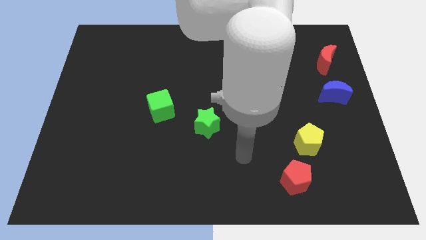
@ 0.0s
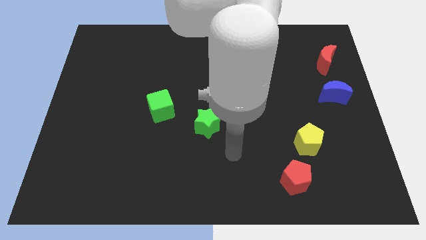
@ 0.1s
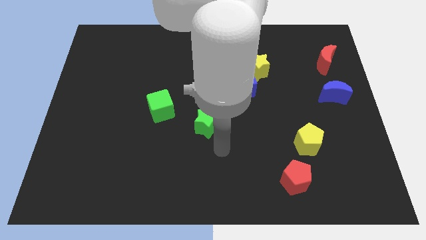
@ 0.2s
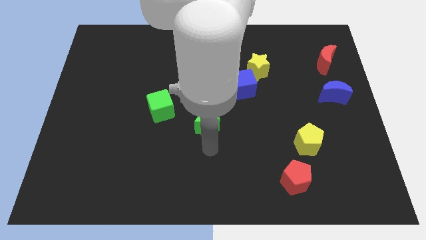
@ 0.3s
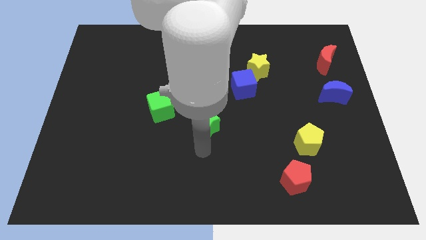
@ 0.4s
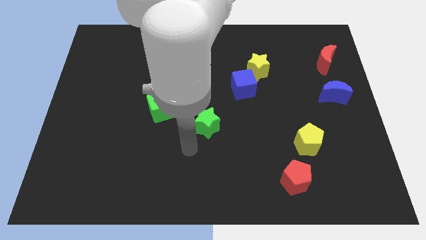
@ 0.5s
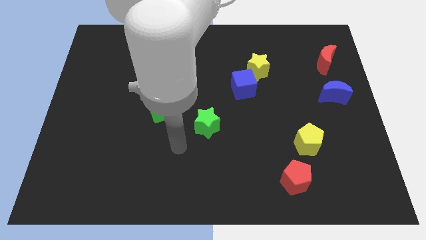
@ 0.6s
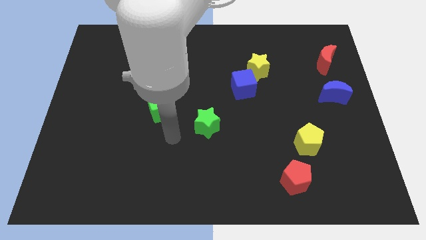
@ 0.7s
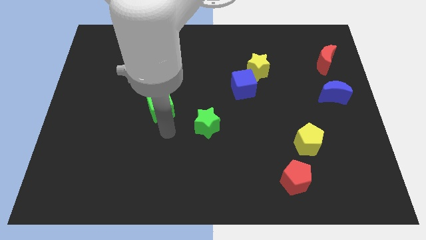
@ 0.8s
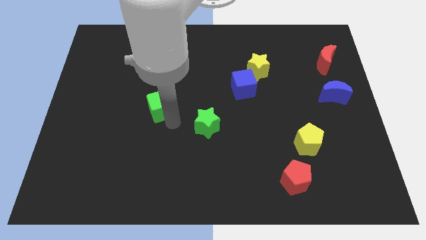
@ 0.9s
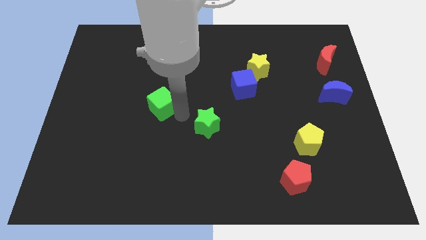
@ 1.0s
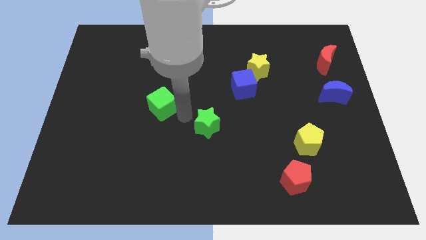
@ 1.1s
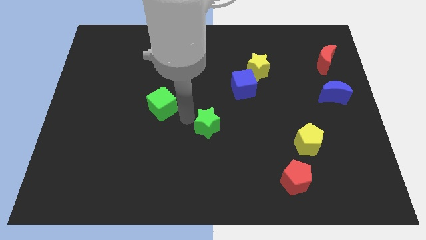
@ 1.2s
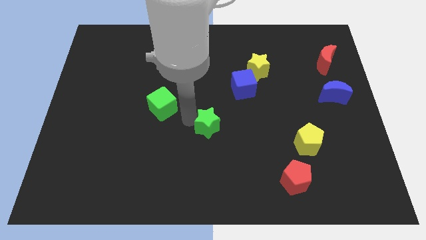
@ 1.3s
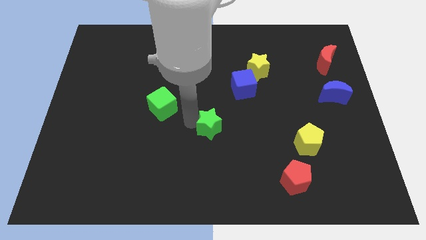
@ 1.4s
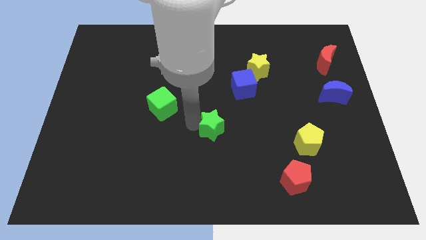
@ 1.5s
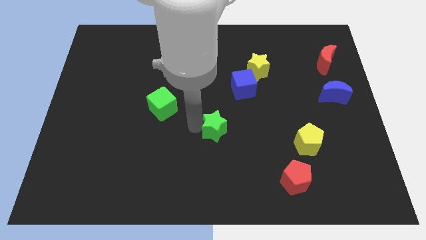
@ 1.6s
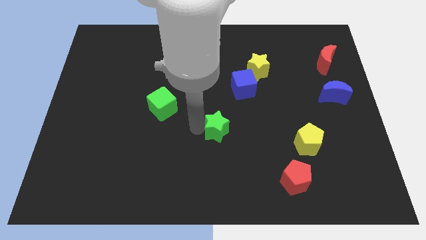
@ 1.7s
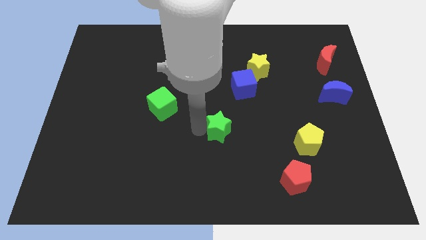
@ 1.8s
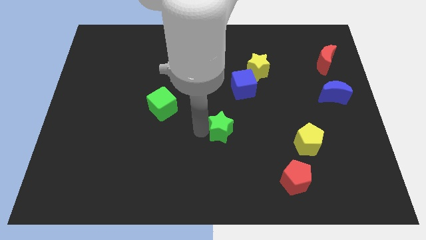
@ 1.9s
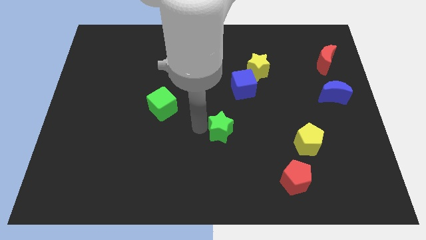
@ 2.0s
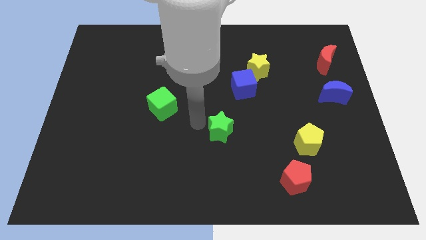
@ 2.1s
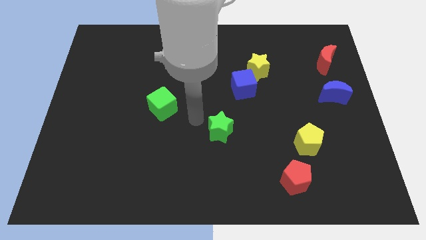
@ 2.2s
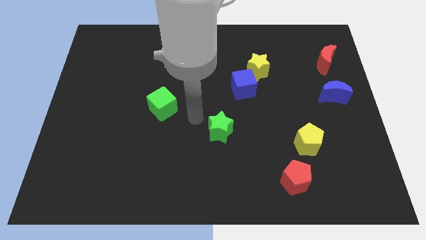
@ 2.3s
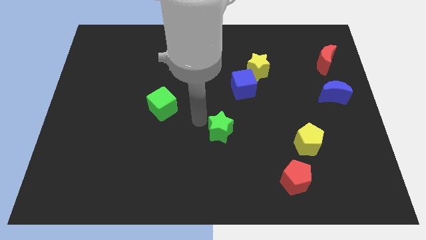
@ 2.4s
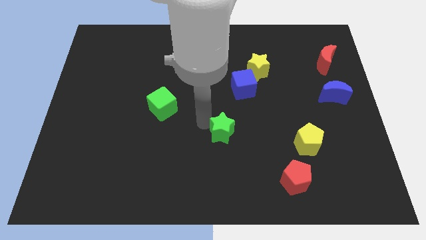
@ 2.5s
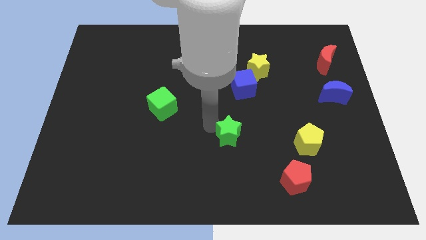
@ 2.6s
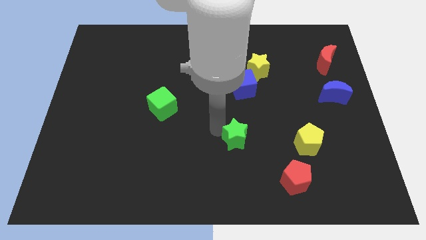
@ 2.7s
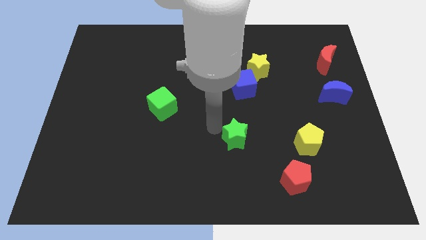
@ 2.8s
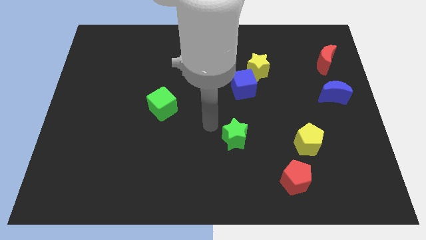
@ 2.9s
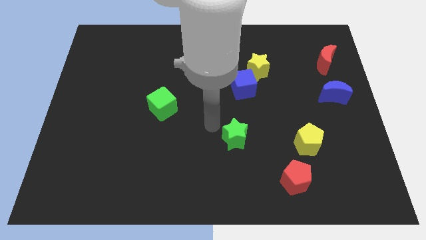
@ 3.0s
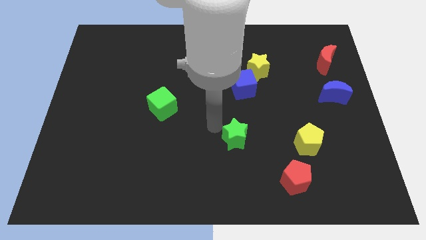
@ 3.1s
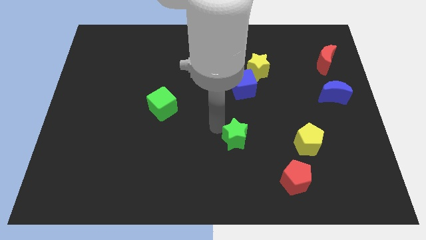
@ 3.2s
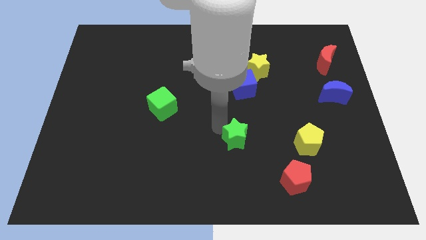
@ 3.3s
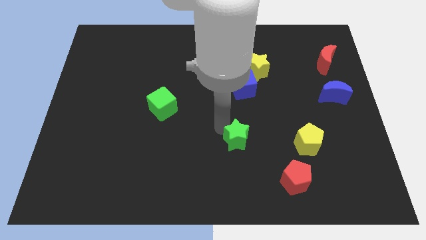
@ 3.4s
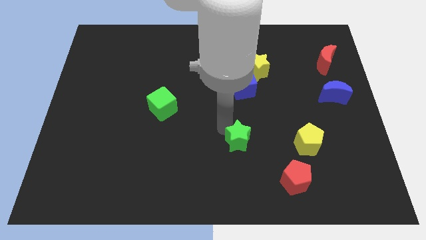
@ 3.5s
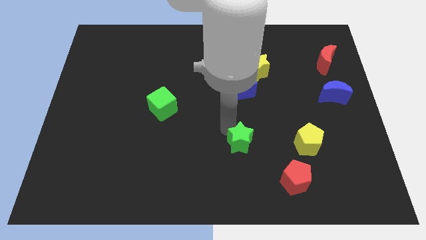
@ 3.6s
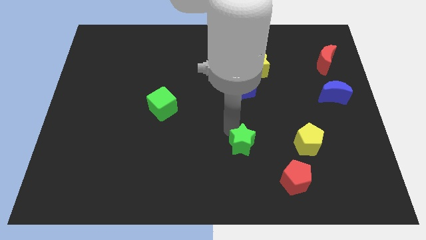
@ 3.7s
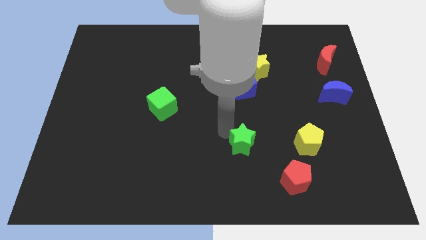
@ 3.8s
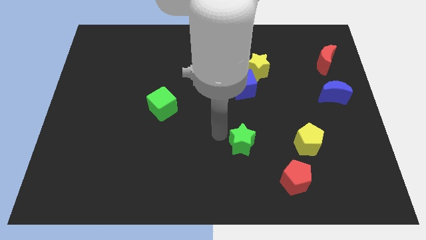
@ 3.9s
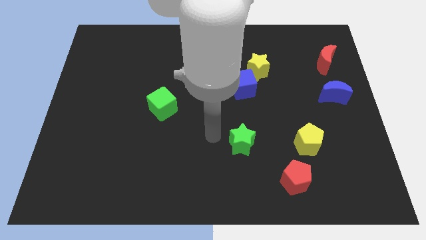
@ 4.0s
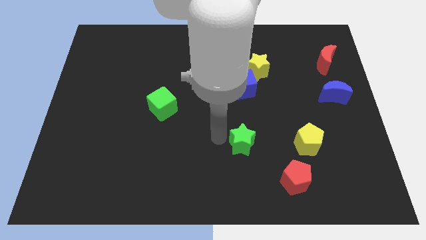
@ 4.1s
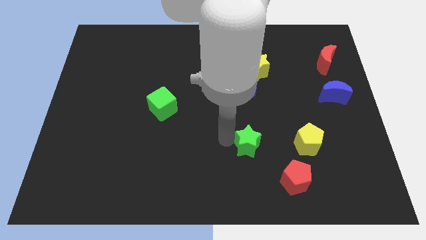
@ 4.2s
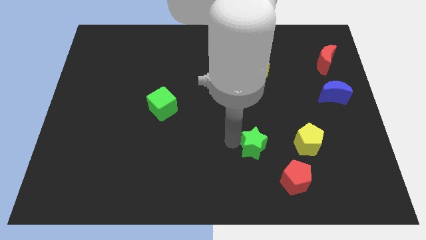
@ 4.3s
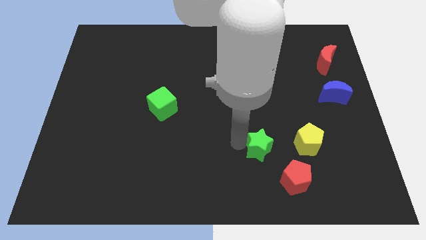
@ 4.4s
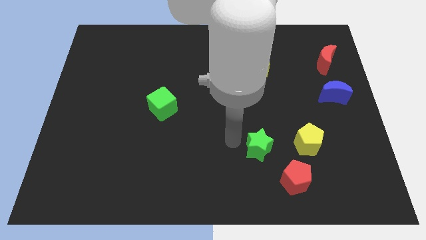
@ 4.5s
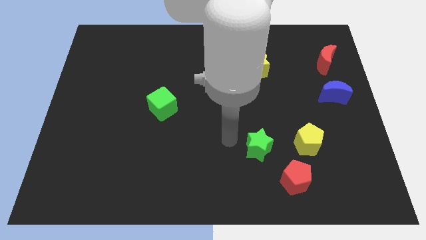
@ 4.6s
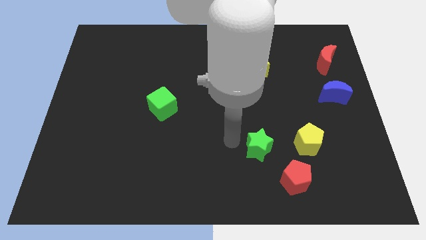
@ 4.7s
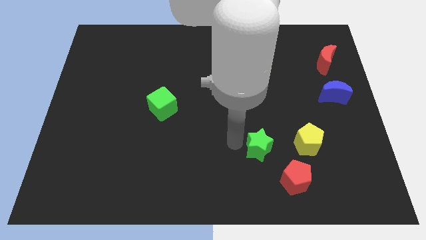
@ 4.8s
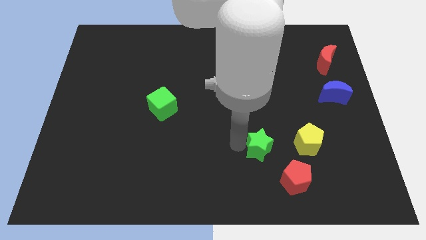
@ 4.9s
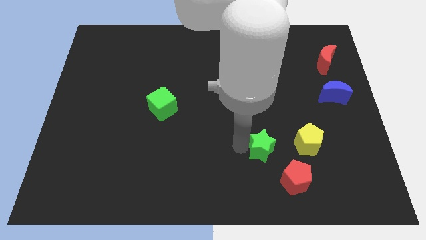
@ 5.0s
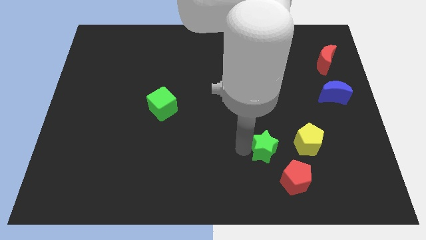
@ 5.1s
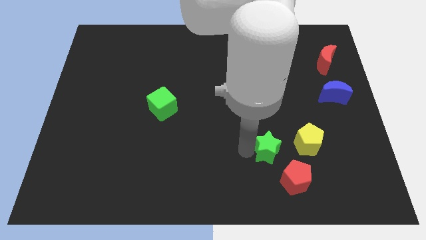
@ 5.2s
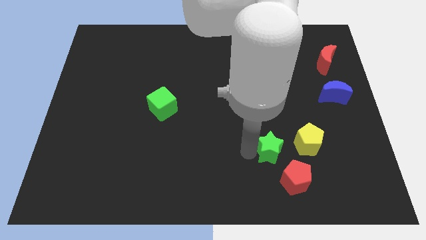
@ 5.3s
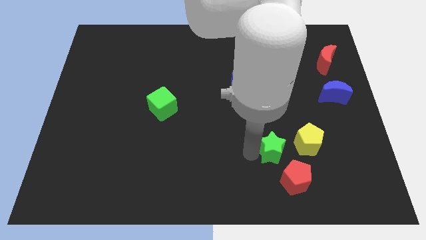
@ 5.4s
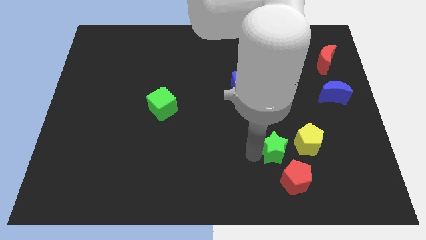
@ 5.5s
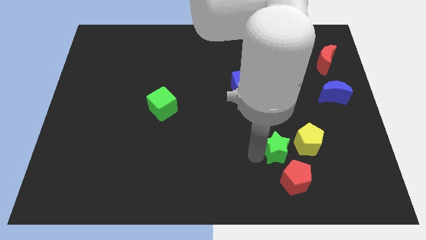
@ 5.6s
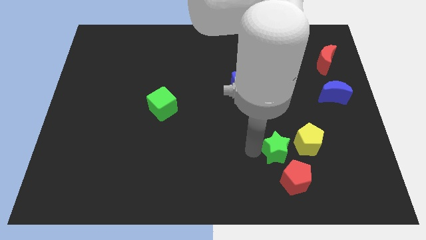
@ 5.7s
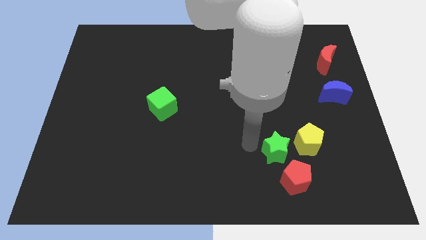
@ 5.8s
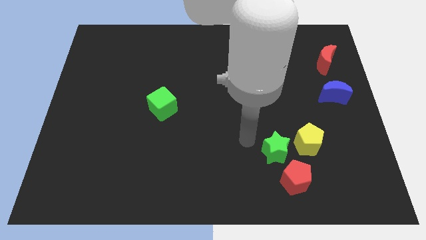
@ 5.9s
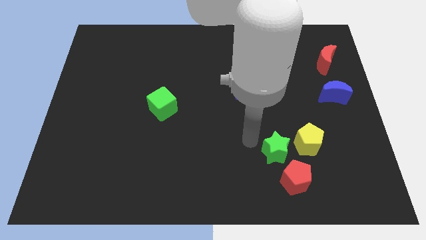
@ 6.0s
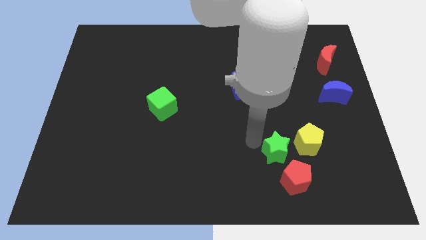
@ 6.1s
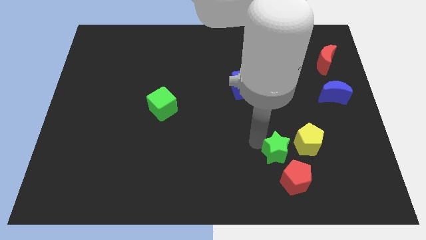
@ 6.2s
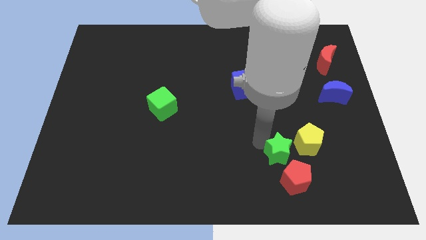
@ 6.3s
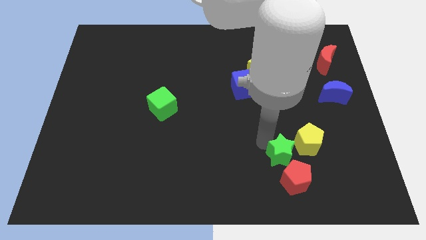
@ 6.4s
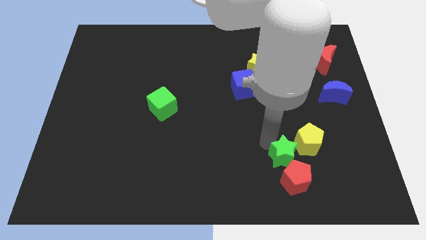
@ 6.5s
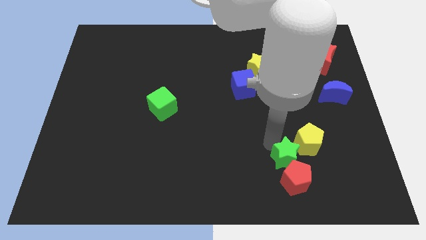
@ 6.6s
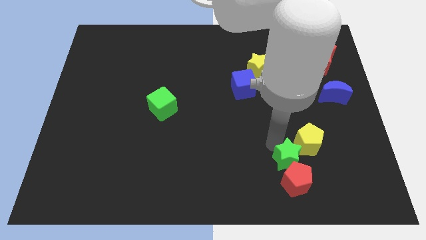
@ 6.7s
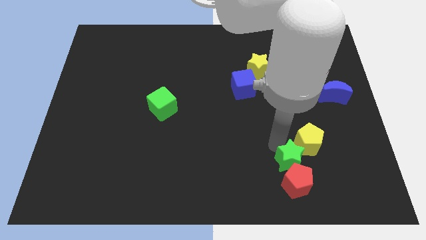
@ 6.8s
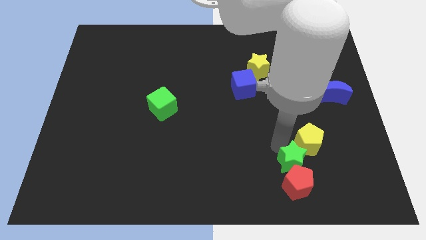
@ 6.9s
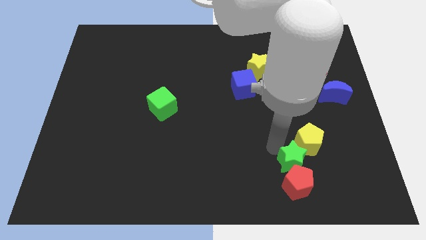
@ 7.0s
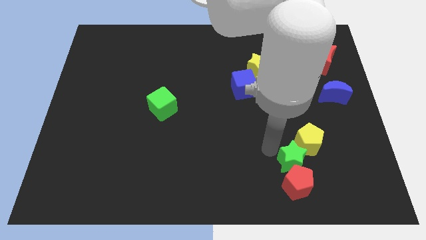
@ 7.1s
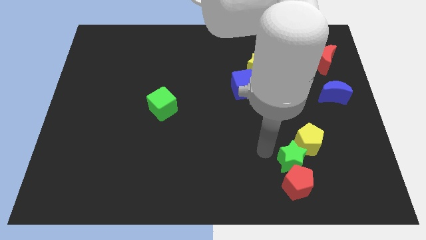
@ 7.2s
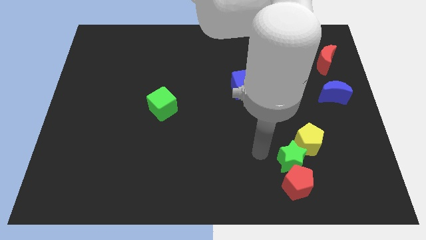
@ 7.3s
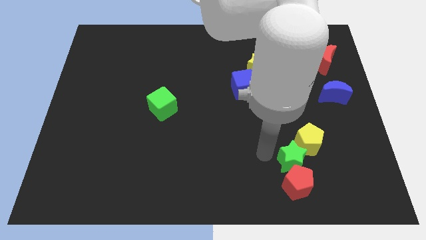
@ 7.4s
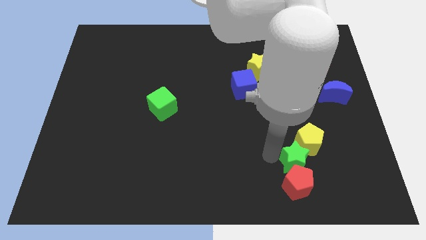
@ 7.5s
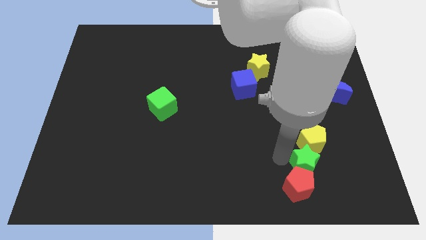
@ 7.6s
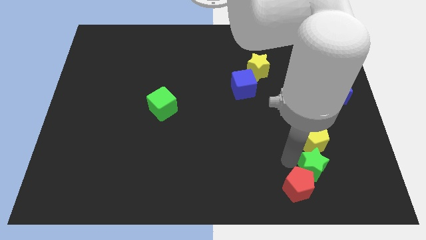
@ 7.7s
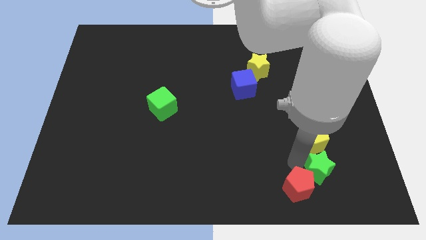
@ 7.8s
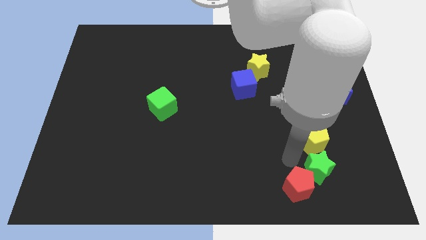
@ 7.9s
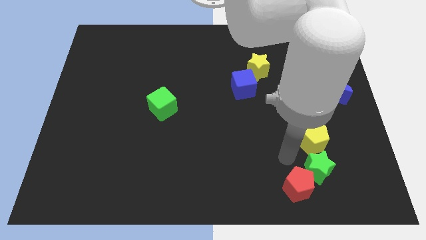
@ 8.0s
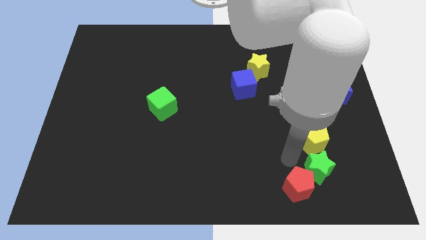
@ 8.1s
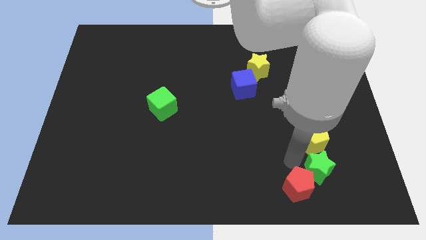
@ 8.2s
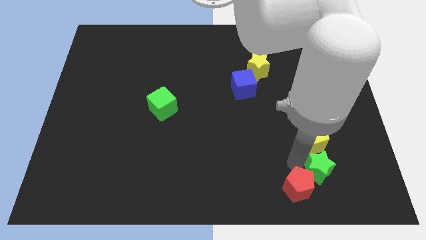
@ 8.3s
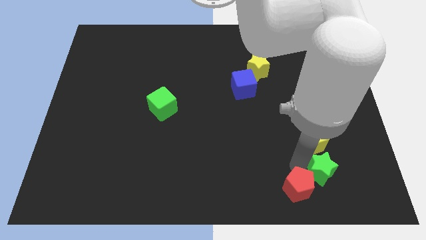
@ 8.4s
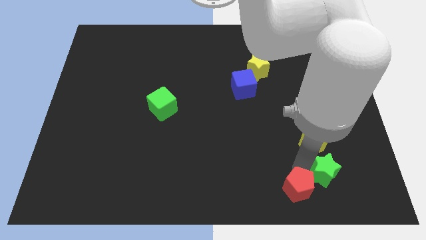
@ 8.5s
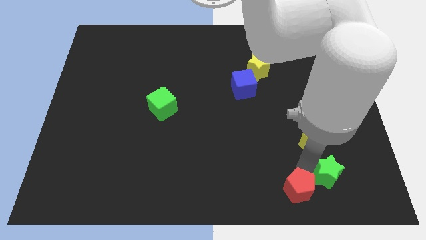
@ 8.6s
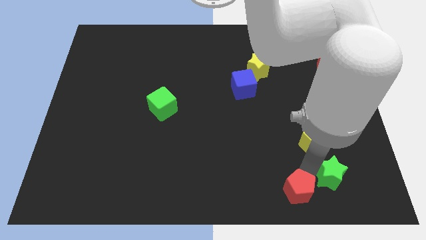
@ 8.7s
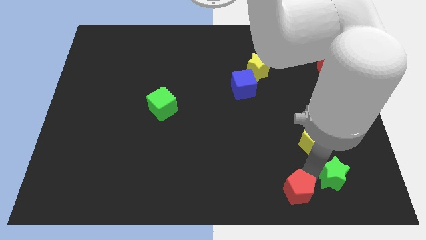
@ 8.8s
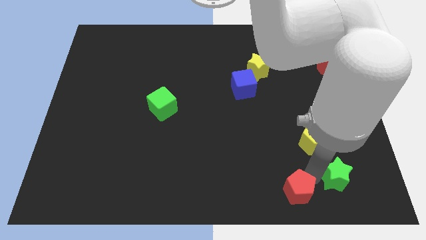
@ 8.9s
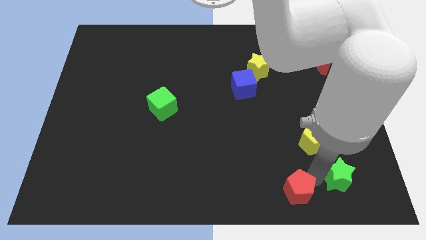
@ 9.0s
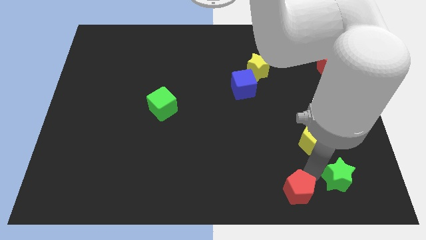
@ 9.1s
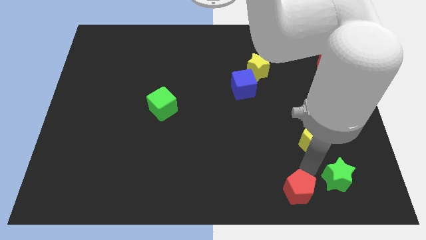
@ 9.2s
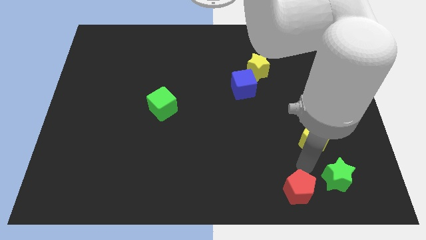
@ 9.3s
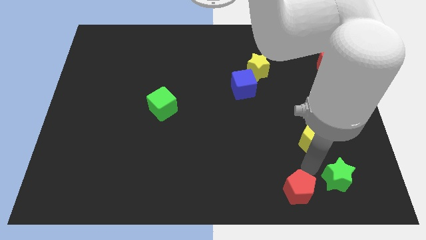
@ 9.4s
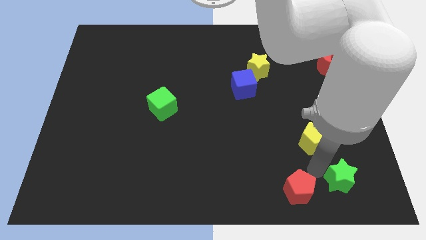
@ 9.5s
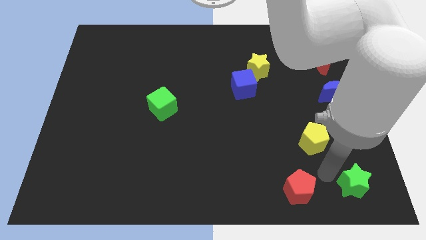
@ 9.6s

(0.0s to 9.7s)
put the green star to the lower right corner
